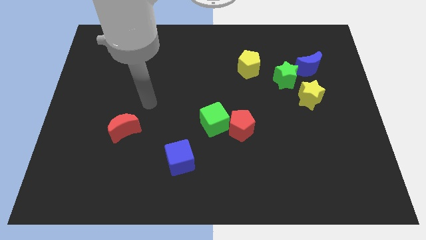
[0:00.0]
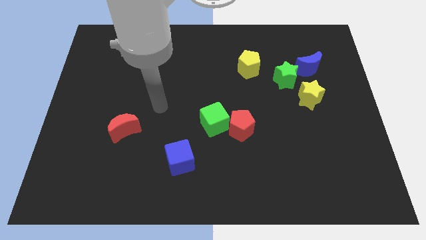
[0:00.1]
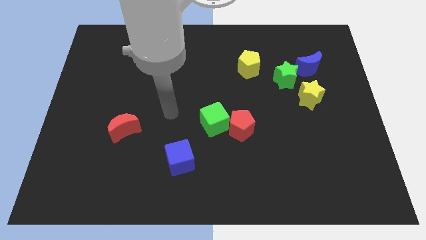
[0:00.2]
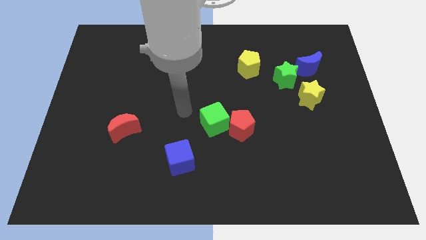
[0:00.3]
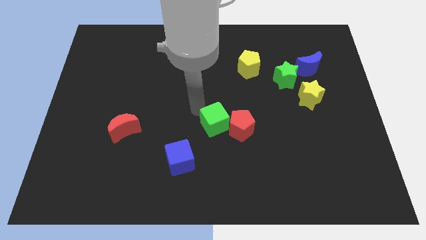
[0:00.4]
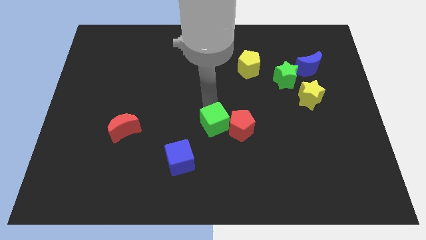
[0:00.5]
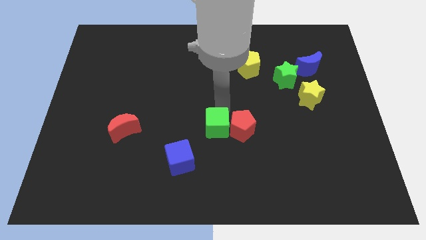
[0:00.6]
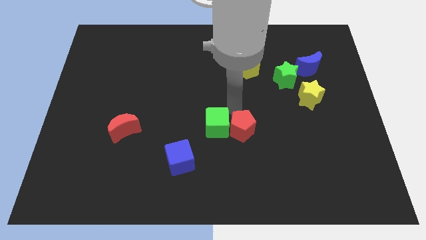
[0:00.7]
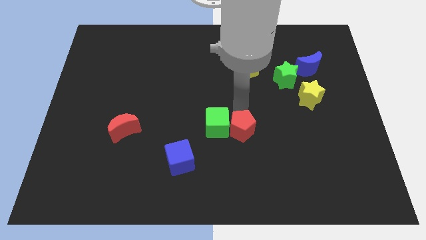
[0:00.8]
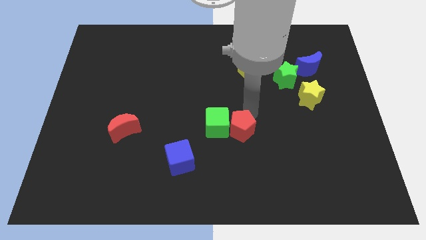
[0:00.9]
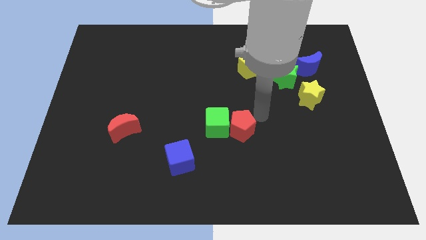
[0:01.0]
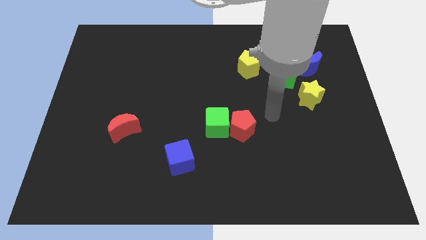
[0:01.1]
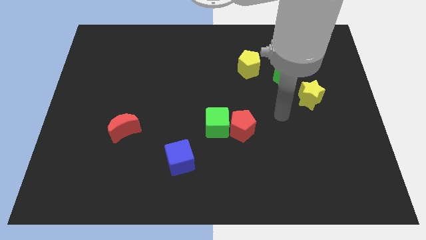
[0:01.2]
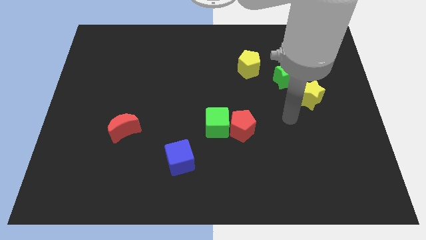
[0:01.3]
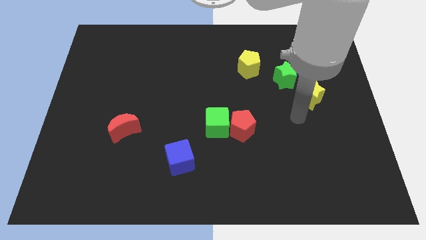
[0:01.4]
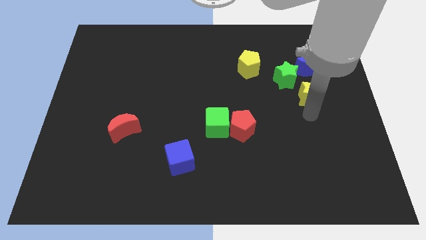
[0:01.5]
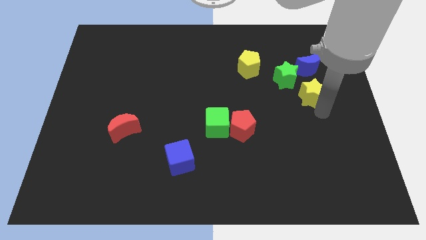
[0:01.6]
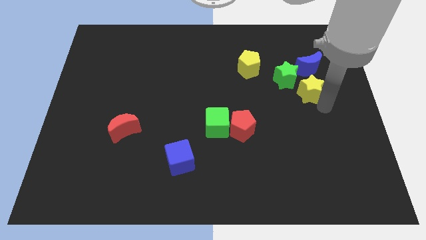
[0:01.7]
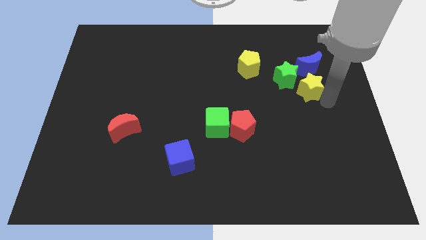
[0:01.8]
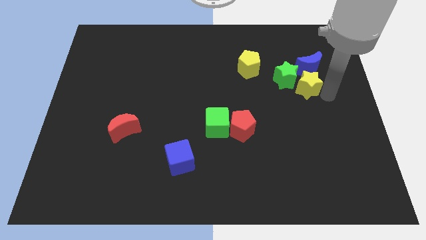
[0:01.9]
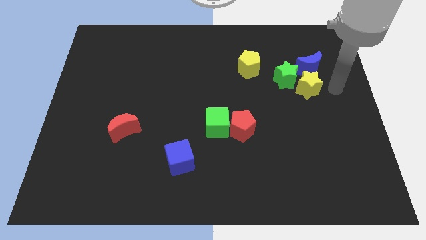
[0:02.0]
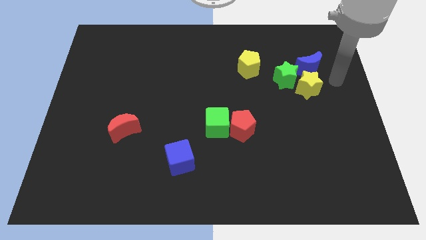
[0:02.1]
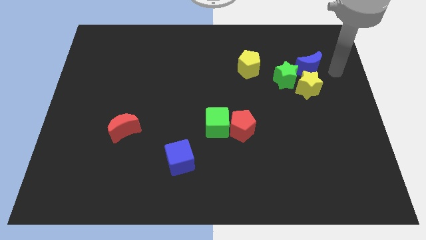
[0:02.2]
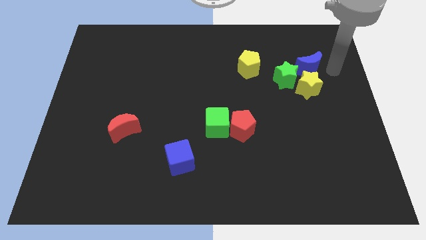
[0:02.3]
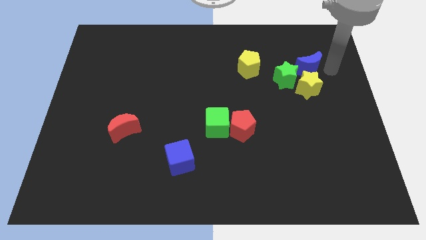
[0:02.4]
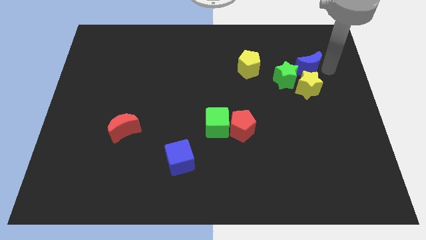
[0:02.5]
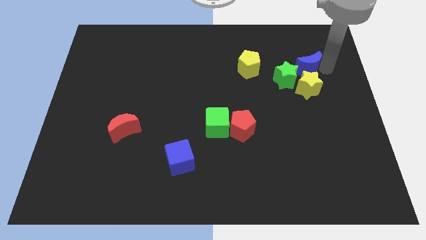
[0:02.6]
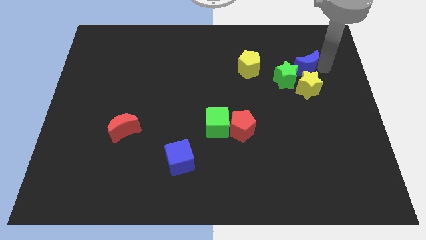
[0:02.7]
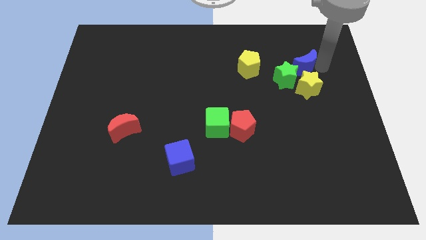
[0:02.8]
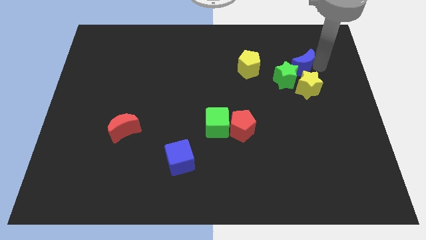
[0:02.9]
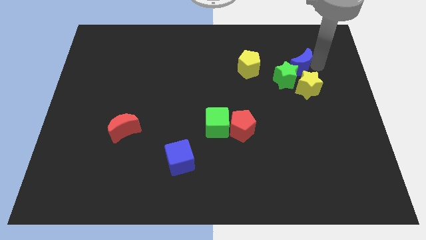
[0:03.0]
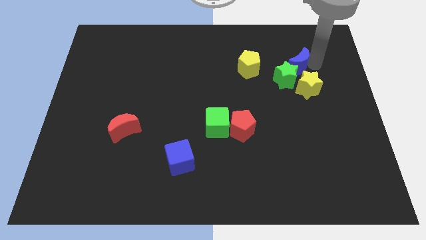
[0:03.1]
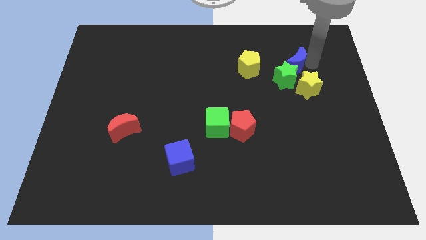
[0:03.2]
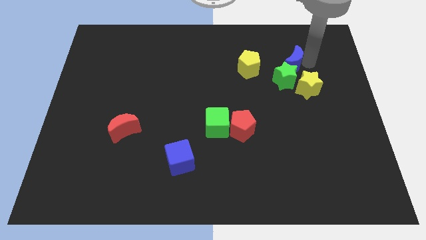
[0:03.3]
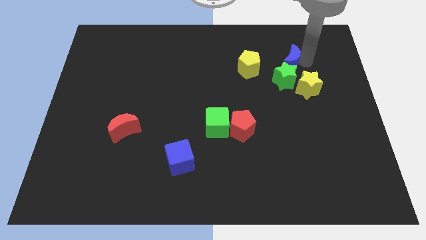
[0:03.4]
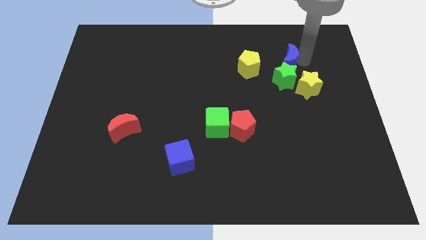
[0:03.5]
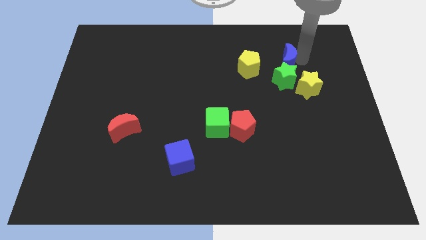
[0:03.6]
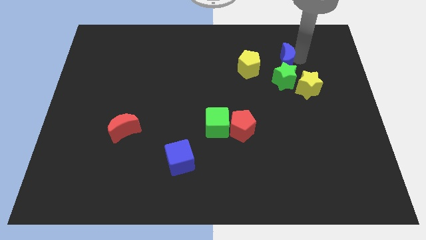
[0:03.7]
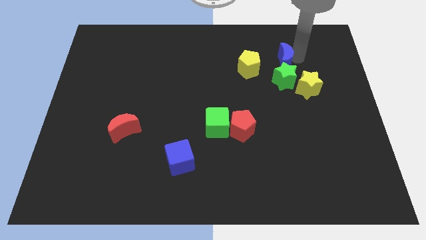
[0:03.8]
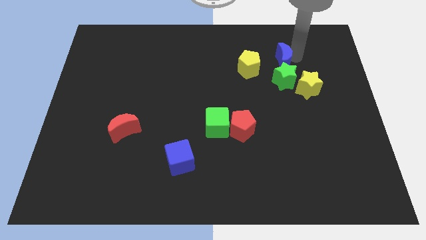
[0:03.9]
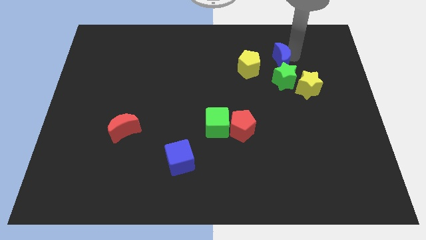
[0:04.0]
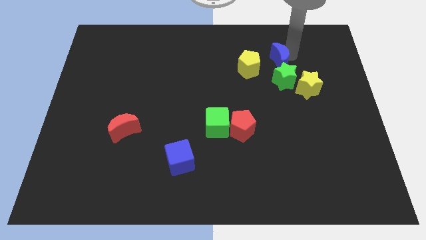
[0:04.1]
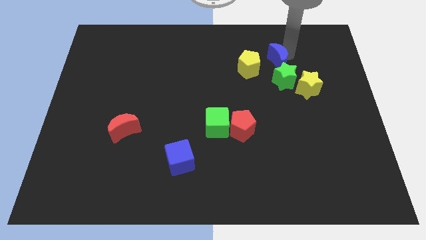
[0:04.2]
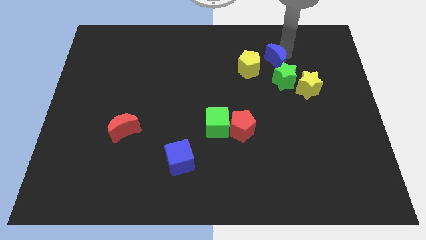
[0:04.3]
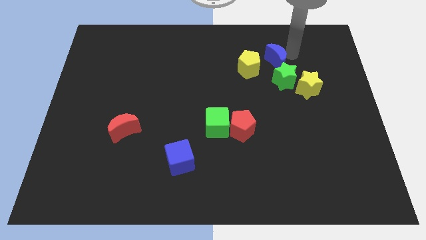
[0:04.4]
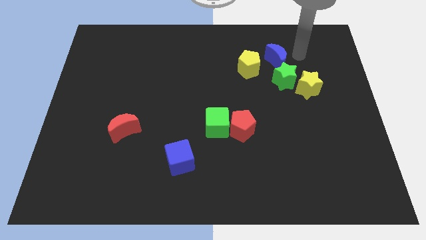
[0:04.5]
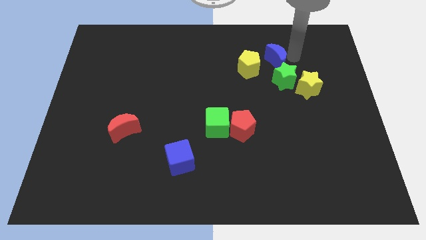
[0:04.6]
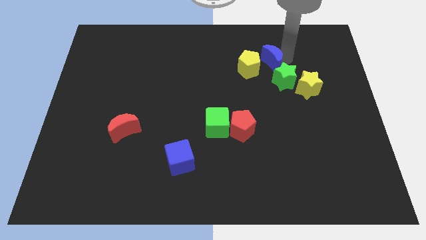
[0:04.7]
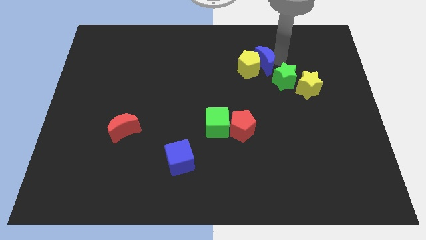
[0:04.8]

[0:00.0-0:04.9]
move the blue moon towards the yellow pentagon

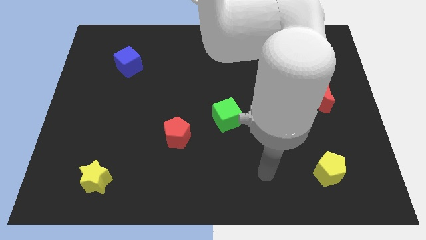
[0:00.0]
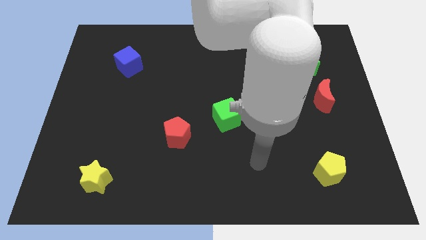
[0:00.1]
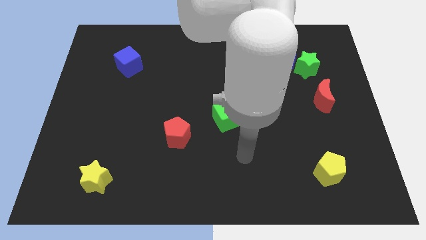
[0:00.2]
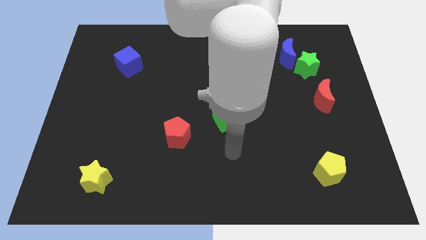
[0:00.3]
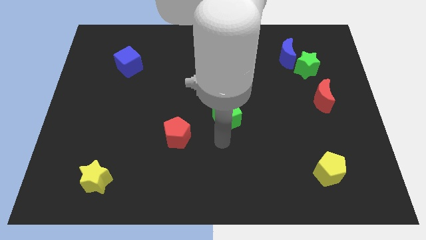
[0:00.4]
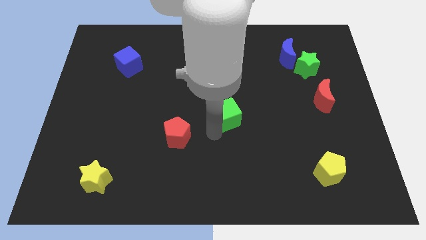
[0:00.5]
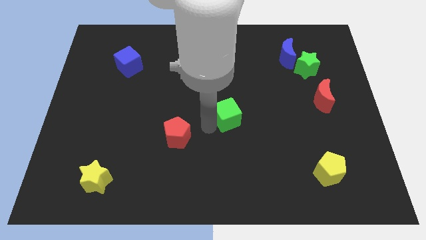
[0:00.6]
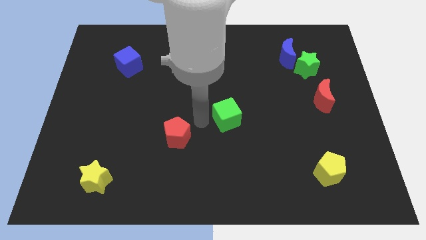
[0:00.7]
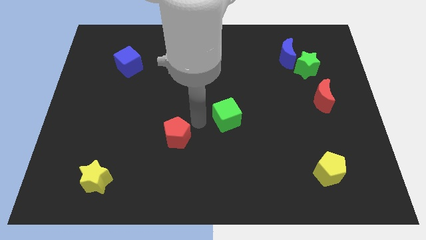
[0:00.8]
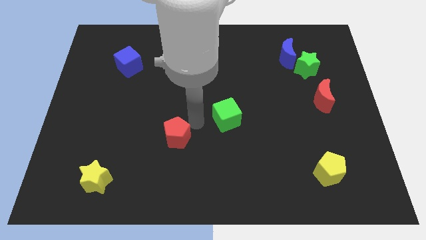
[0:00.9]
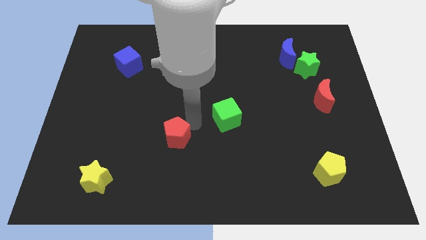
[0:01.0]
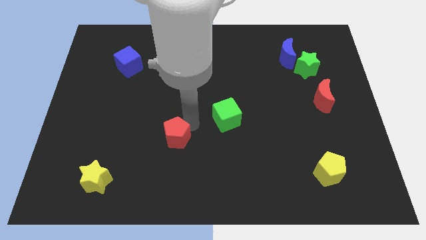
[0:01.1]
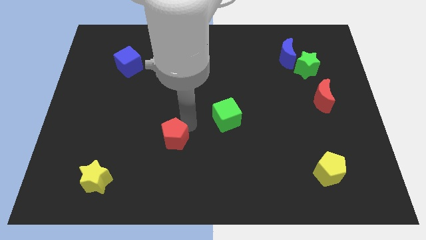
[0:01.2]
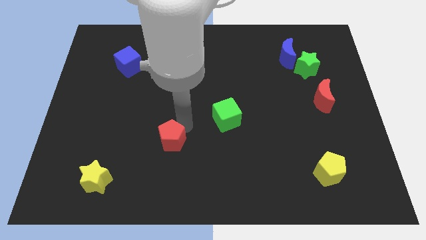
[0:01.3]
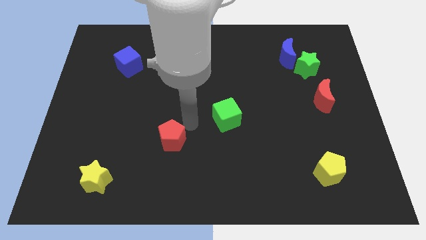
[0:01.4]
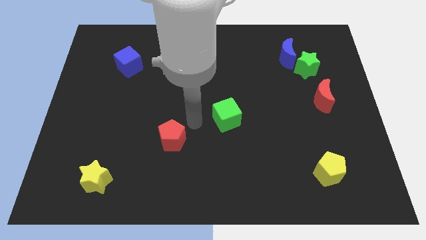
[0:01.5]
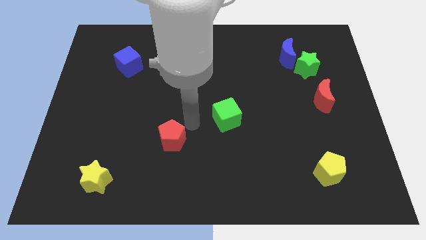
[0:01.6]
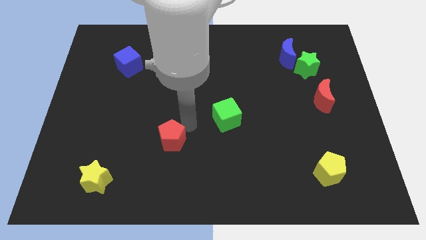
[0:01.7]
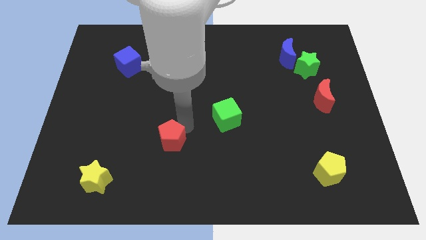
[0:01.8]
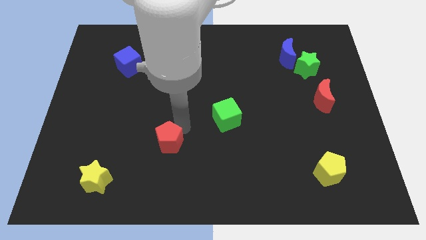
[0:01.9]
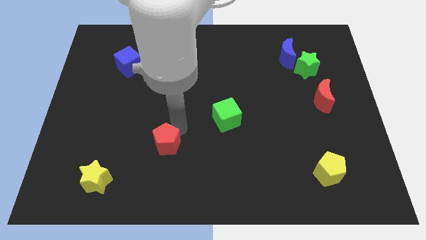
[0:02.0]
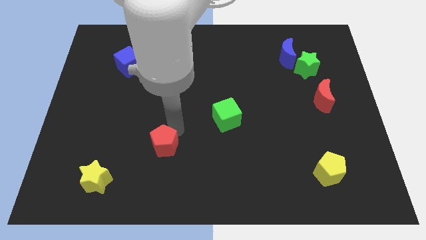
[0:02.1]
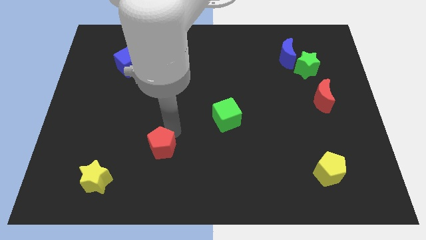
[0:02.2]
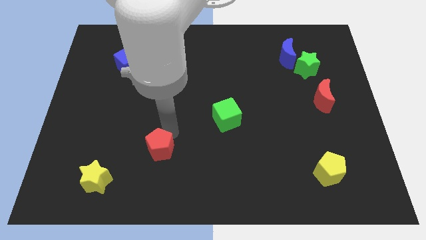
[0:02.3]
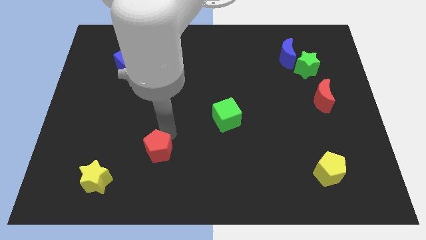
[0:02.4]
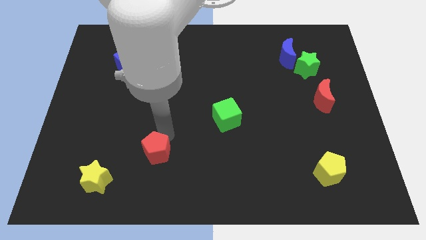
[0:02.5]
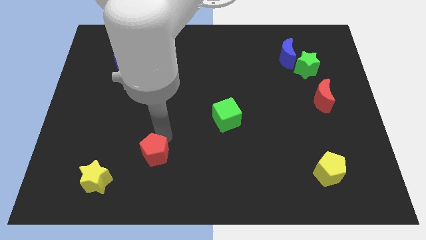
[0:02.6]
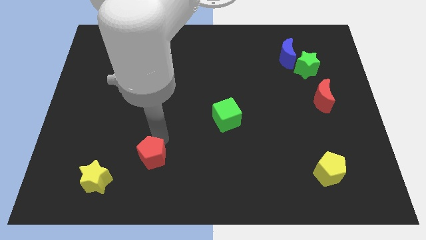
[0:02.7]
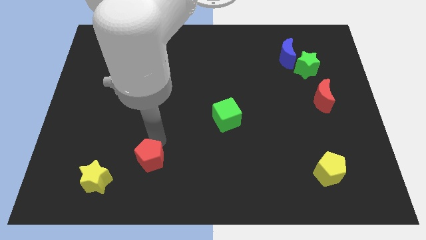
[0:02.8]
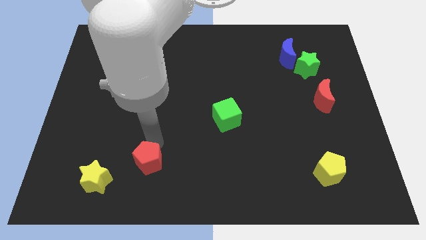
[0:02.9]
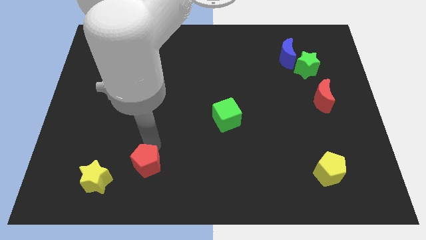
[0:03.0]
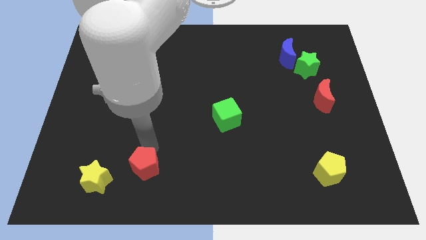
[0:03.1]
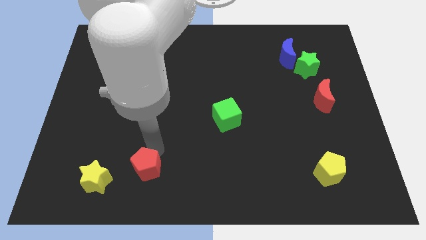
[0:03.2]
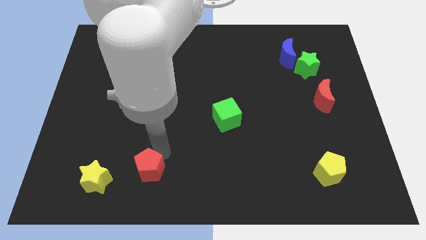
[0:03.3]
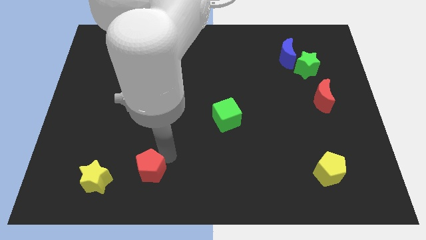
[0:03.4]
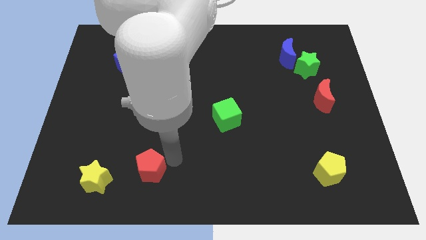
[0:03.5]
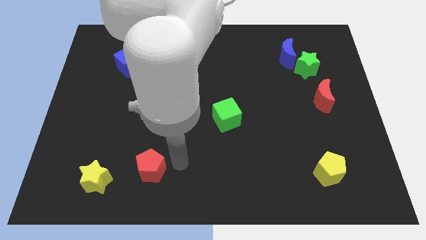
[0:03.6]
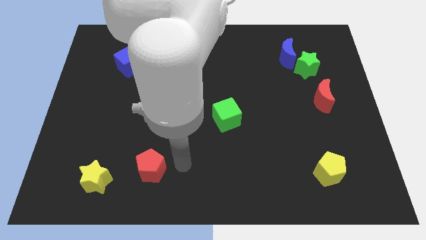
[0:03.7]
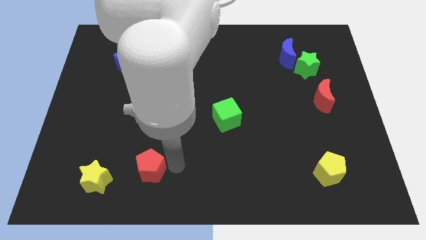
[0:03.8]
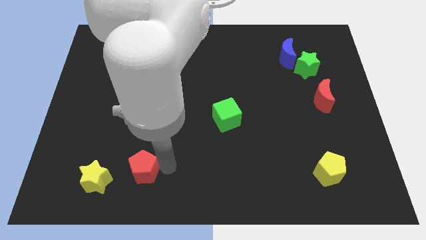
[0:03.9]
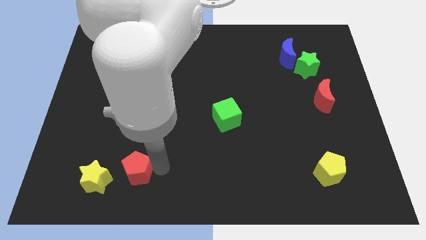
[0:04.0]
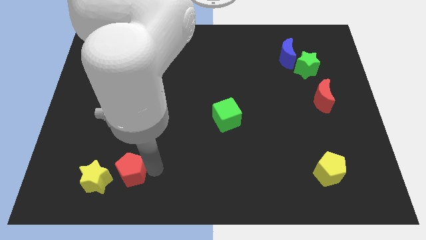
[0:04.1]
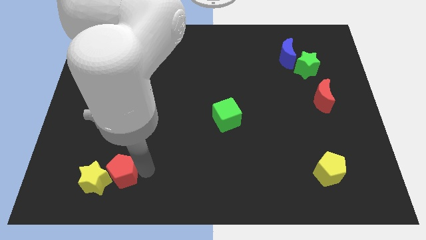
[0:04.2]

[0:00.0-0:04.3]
move the red pentagon next to the yellow star
